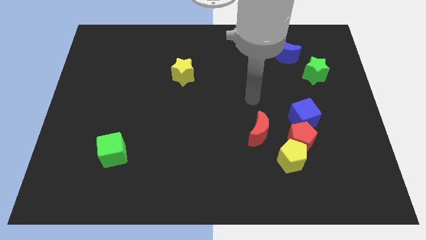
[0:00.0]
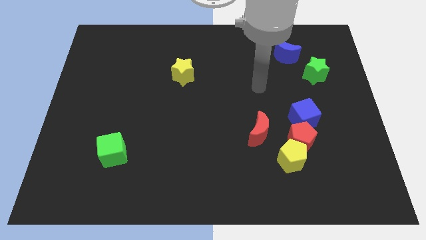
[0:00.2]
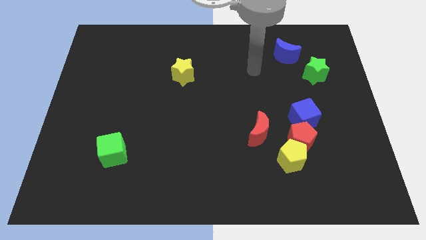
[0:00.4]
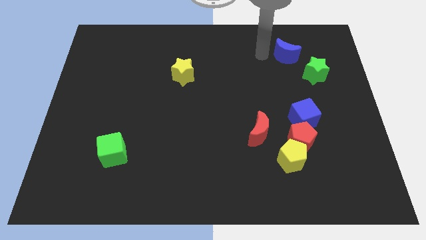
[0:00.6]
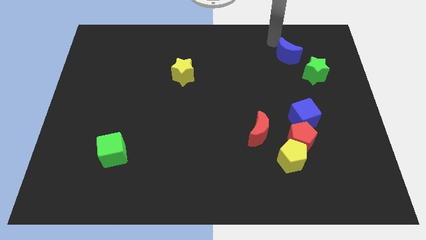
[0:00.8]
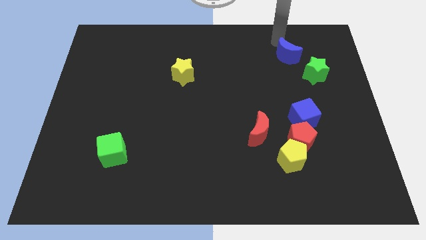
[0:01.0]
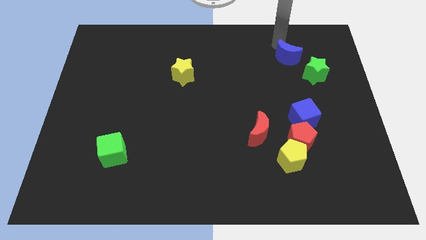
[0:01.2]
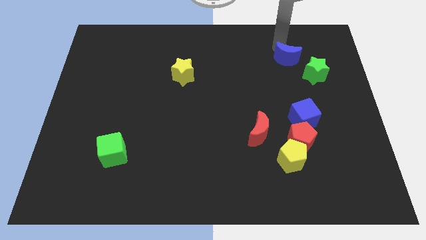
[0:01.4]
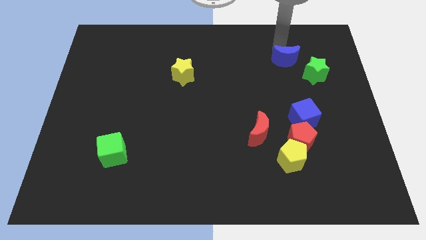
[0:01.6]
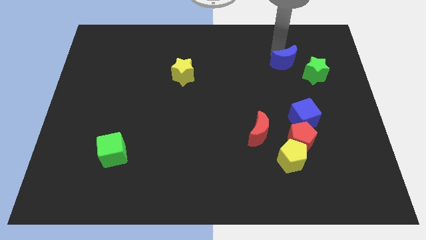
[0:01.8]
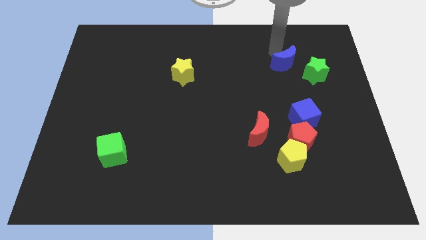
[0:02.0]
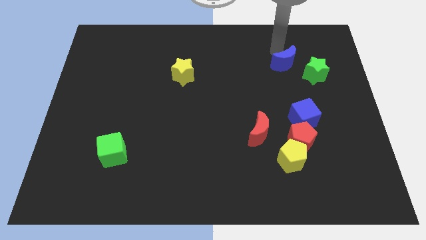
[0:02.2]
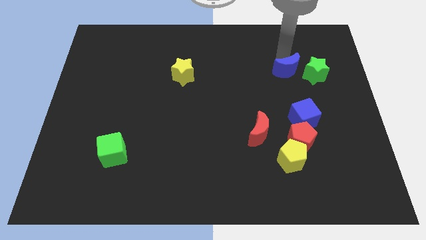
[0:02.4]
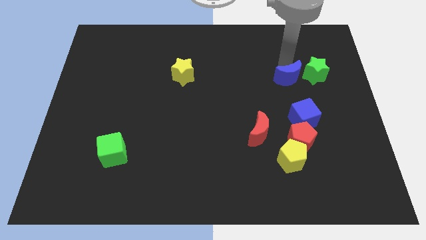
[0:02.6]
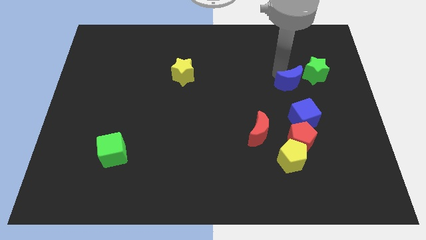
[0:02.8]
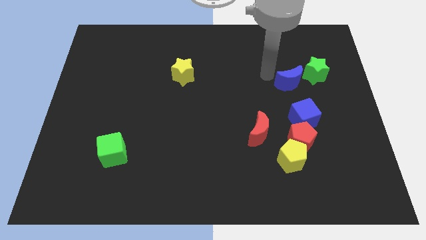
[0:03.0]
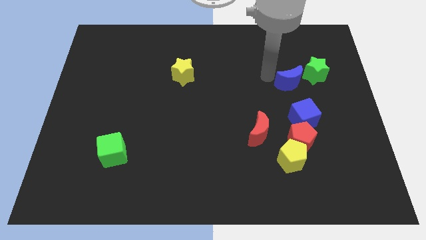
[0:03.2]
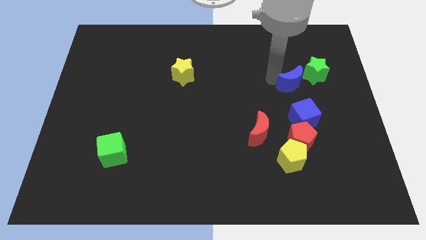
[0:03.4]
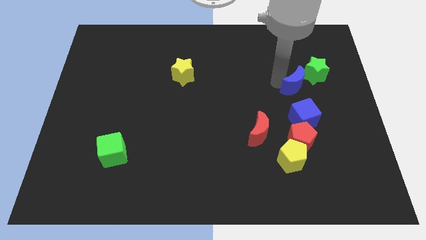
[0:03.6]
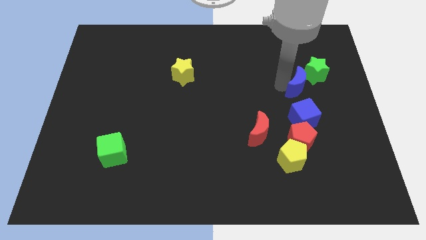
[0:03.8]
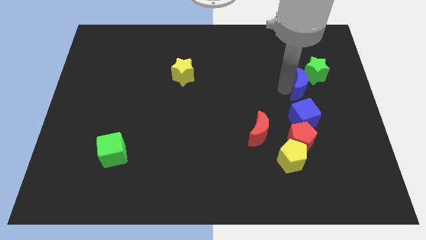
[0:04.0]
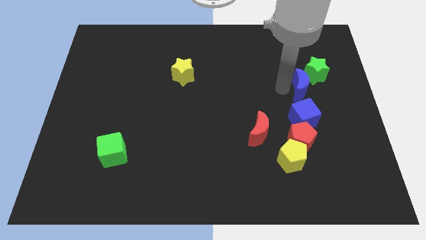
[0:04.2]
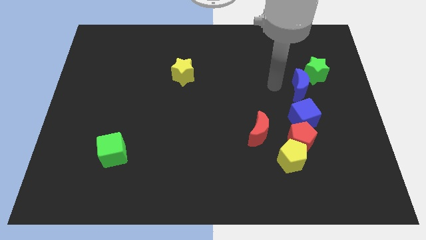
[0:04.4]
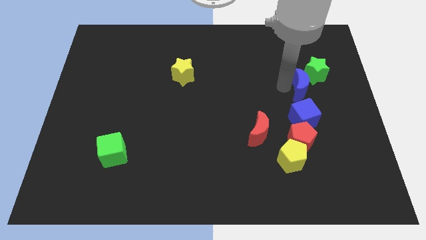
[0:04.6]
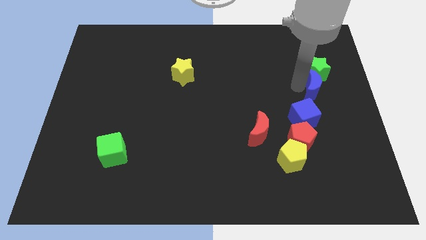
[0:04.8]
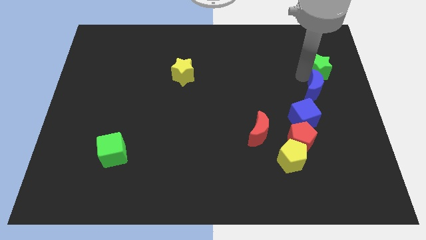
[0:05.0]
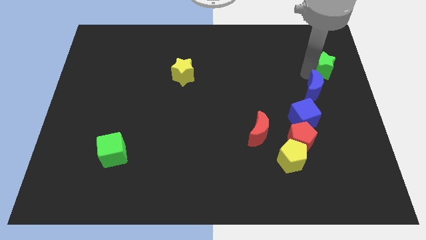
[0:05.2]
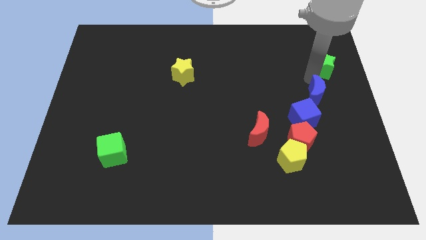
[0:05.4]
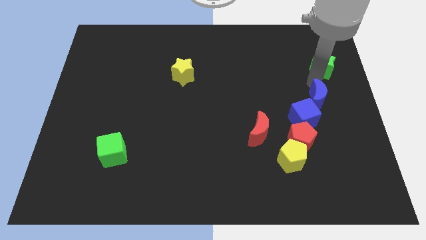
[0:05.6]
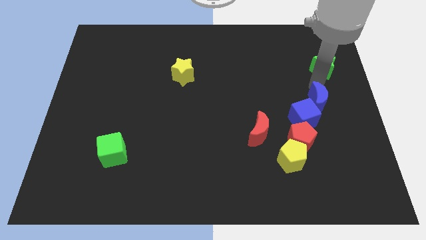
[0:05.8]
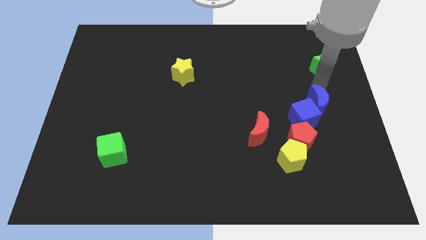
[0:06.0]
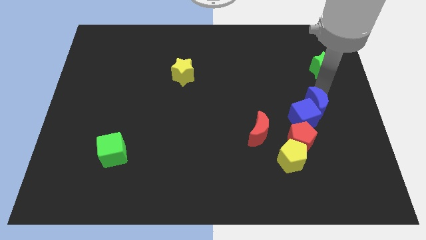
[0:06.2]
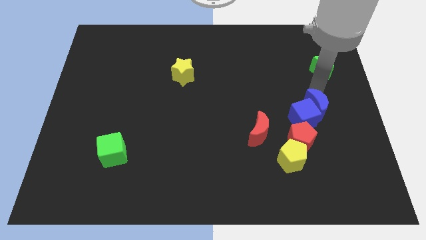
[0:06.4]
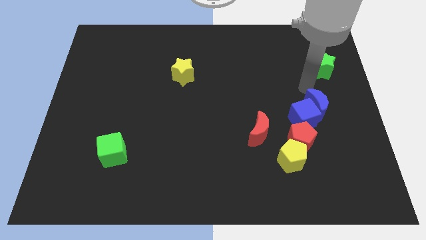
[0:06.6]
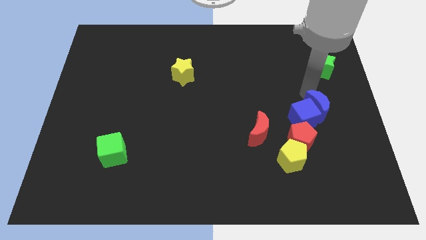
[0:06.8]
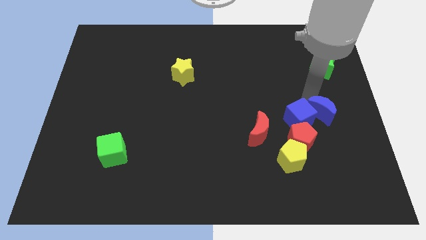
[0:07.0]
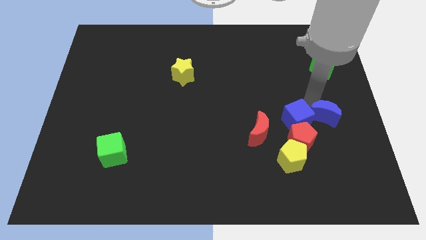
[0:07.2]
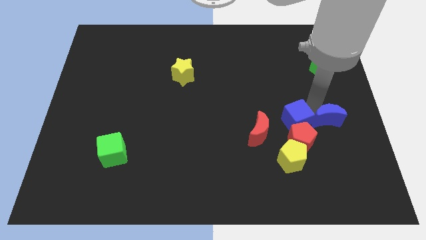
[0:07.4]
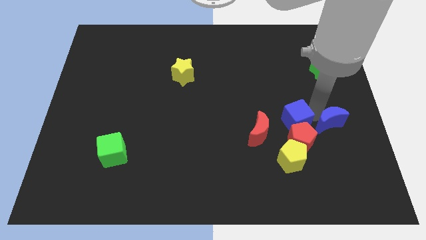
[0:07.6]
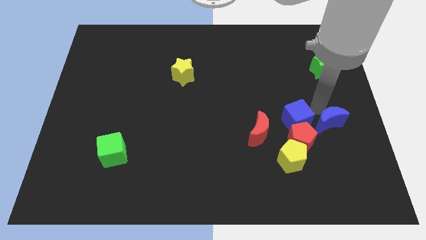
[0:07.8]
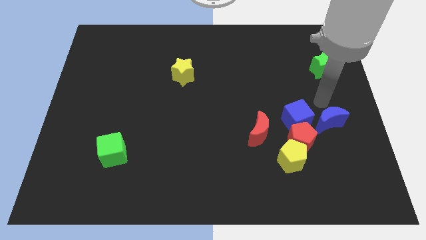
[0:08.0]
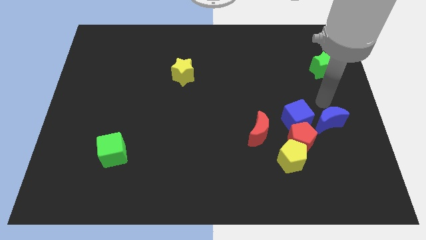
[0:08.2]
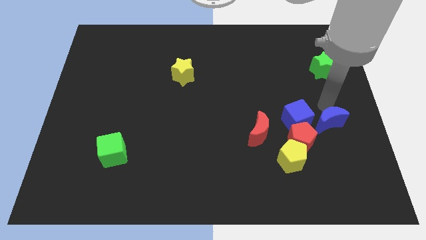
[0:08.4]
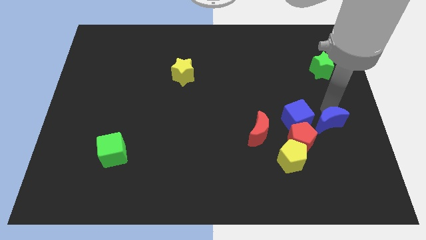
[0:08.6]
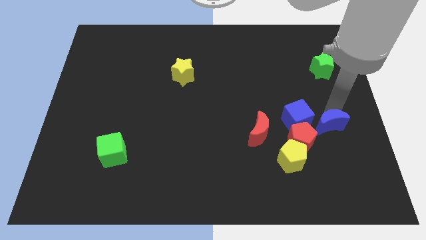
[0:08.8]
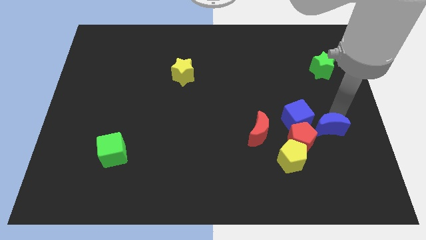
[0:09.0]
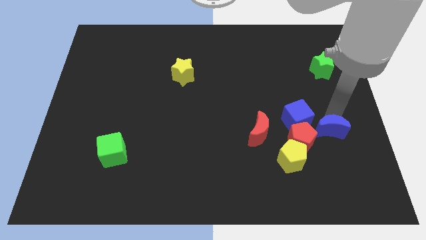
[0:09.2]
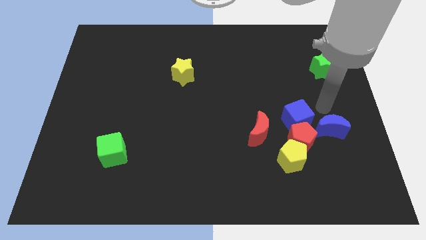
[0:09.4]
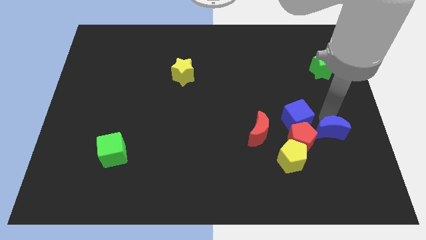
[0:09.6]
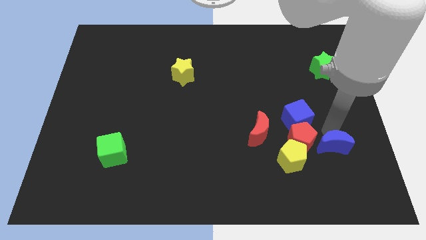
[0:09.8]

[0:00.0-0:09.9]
slide the blue moon to the right of the yellow pentagon

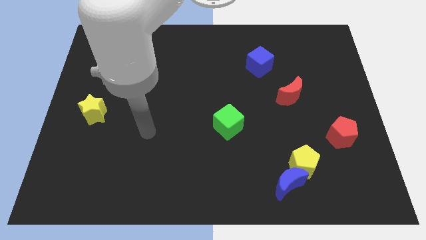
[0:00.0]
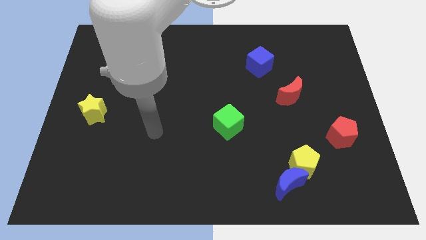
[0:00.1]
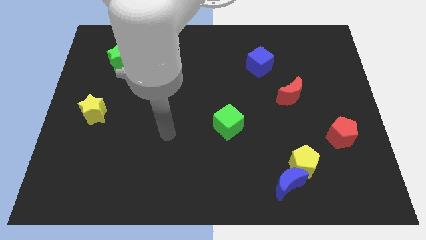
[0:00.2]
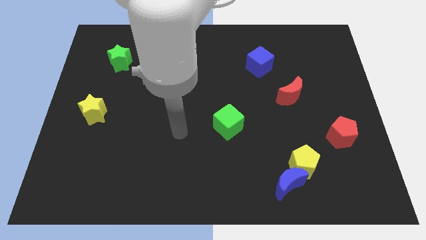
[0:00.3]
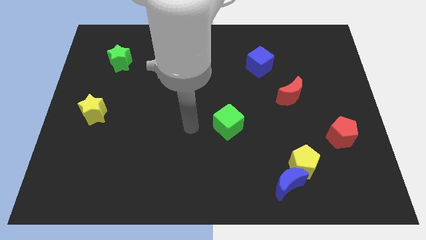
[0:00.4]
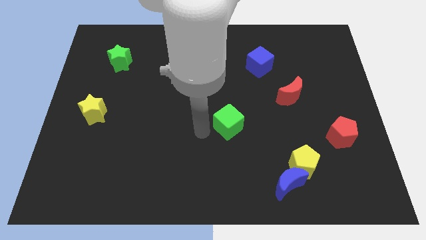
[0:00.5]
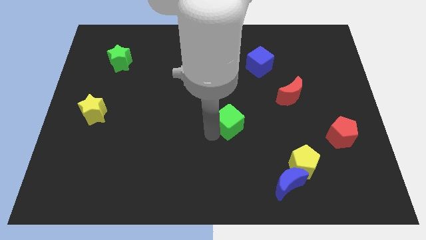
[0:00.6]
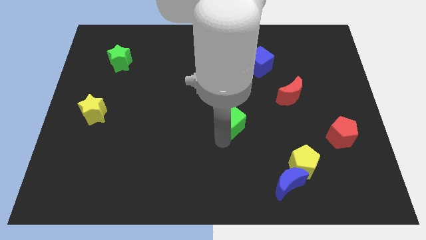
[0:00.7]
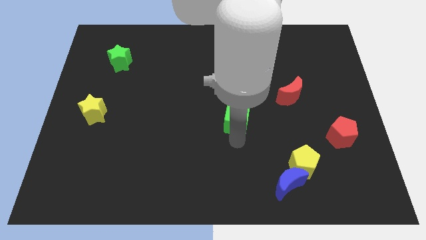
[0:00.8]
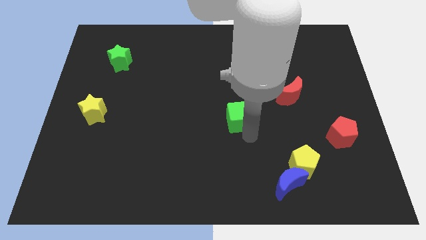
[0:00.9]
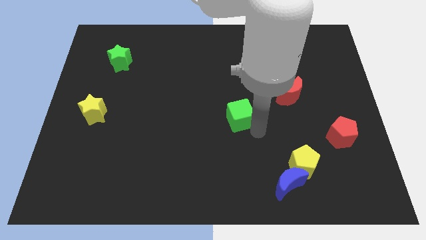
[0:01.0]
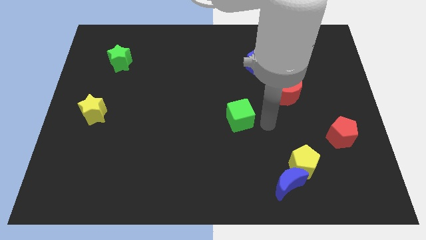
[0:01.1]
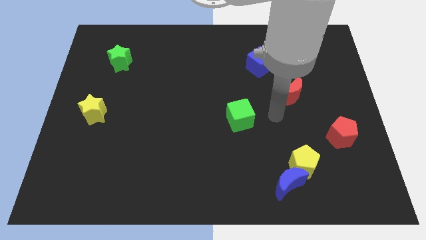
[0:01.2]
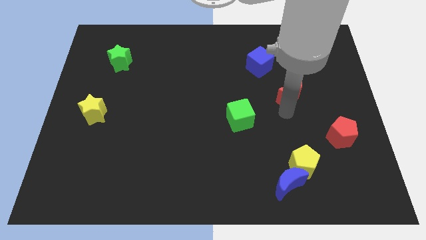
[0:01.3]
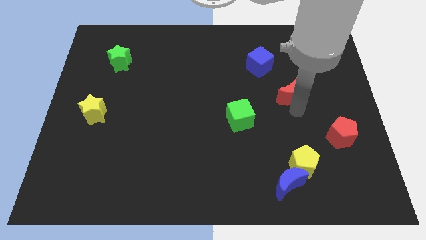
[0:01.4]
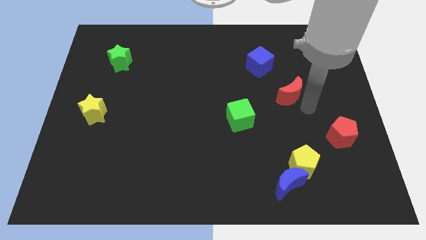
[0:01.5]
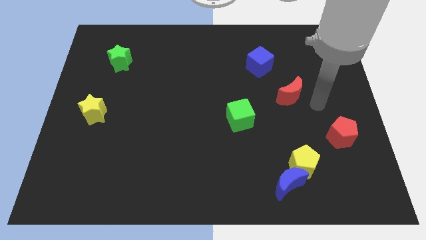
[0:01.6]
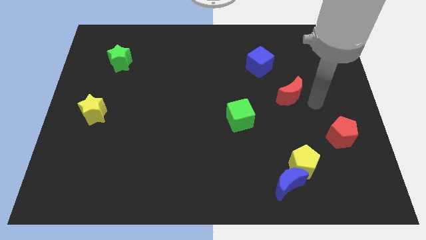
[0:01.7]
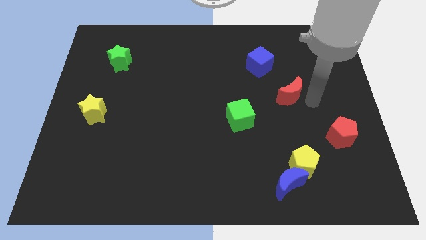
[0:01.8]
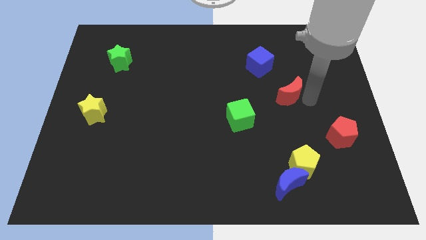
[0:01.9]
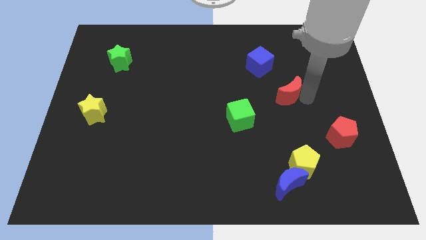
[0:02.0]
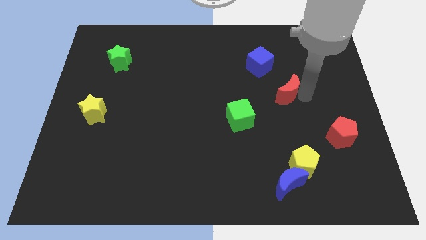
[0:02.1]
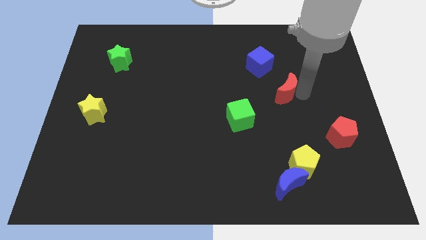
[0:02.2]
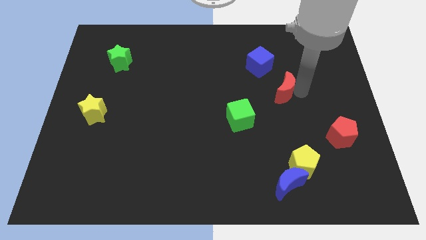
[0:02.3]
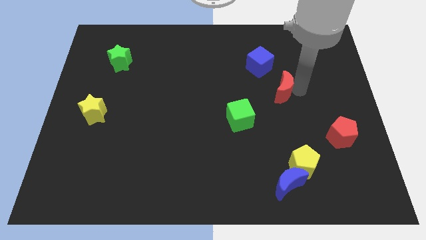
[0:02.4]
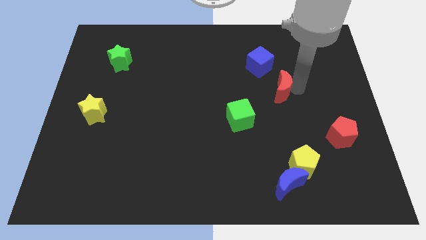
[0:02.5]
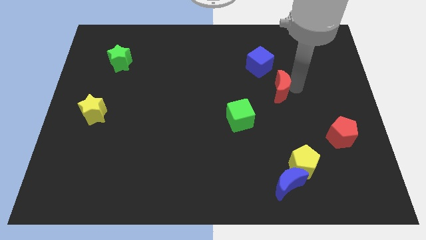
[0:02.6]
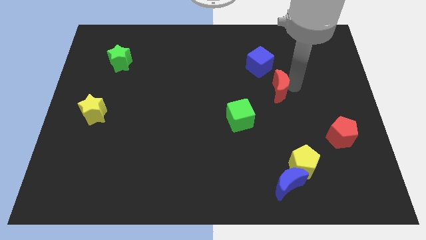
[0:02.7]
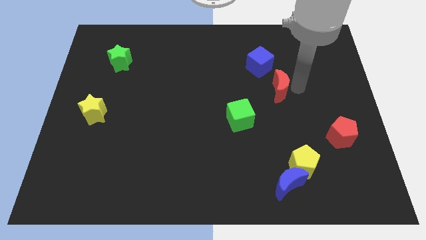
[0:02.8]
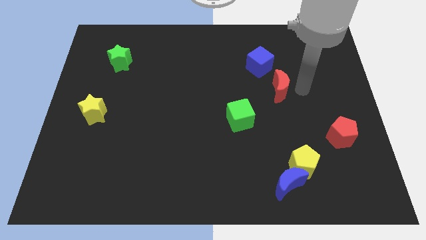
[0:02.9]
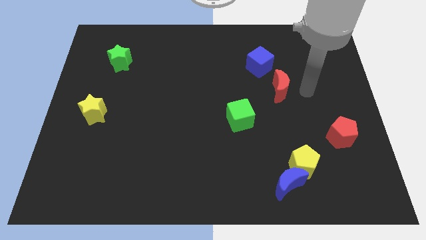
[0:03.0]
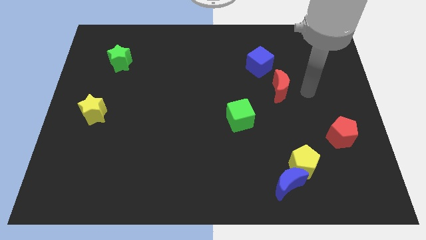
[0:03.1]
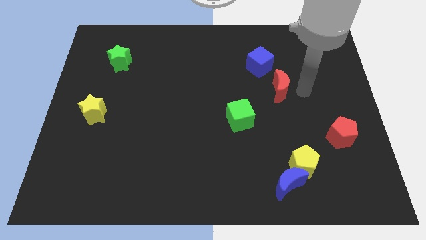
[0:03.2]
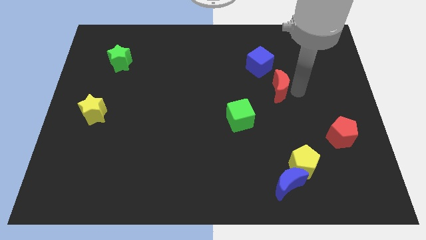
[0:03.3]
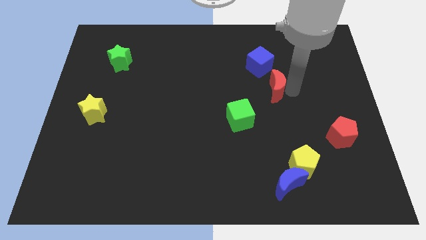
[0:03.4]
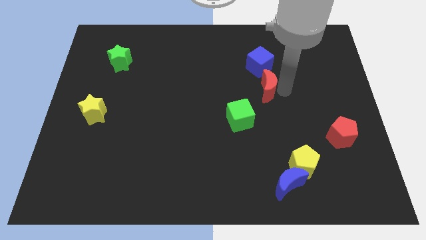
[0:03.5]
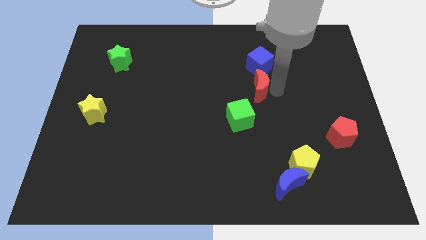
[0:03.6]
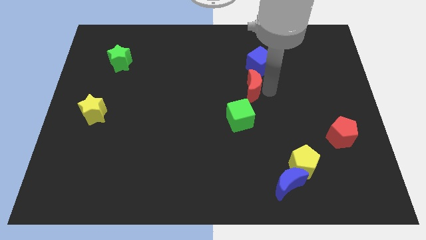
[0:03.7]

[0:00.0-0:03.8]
slide the red moon above the green cube
